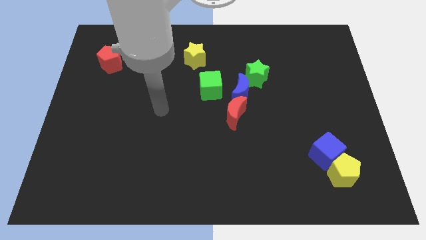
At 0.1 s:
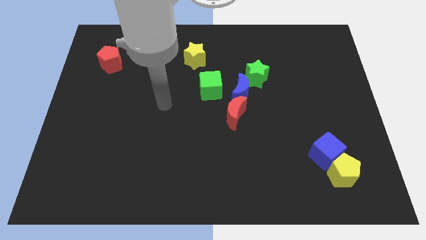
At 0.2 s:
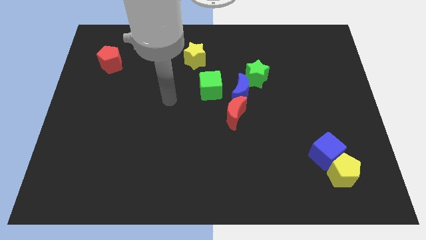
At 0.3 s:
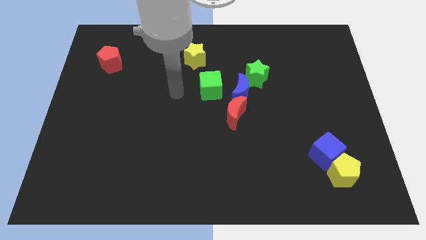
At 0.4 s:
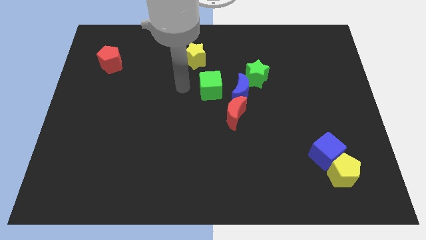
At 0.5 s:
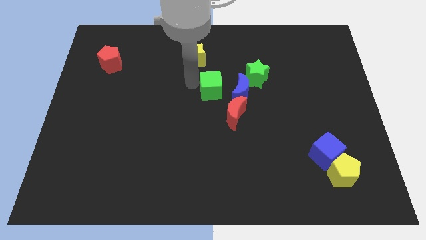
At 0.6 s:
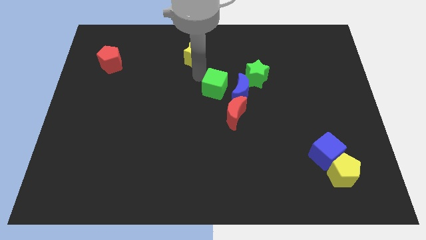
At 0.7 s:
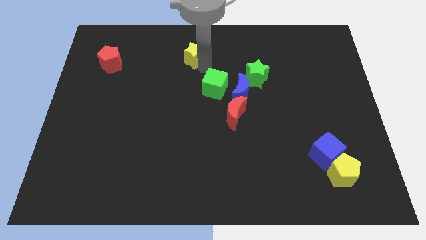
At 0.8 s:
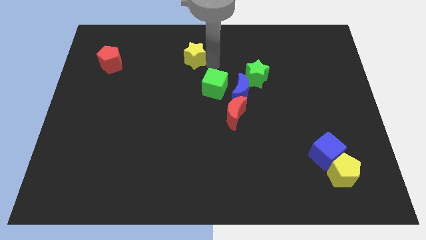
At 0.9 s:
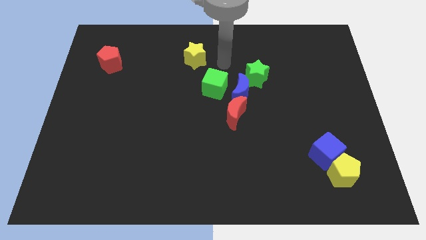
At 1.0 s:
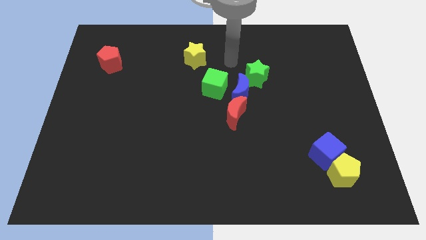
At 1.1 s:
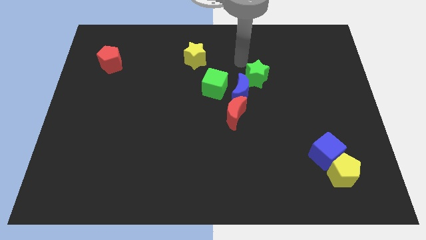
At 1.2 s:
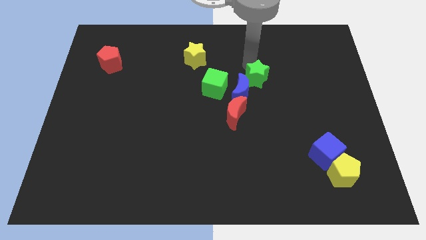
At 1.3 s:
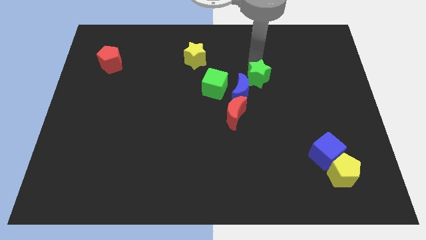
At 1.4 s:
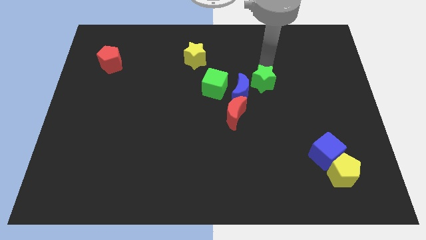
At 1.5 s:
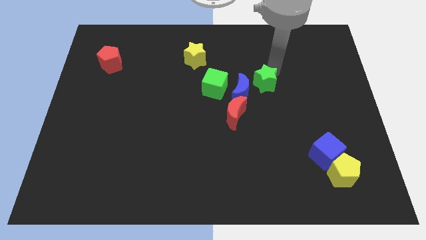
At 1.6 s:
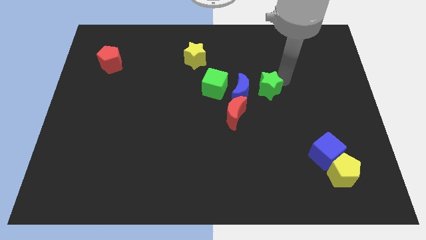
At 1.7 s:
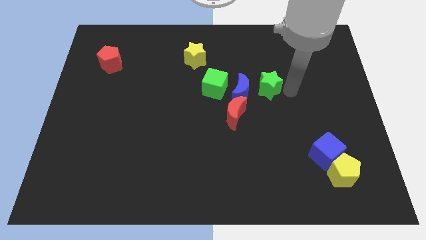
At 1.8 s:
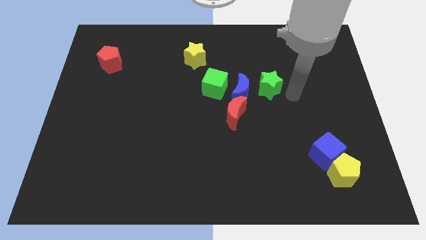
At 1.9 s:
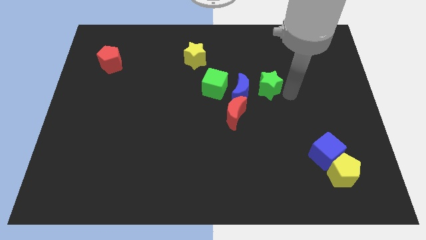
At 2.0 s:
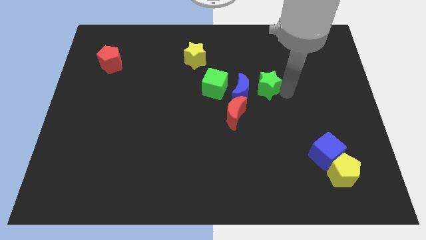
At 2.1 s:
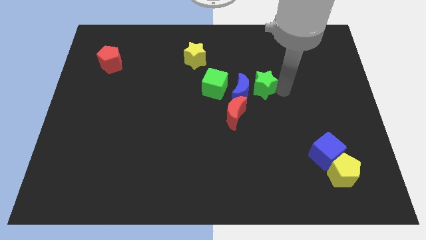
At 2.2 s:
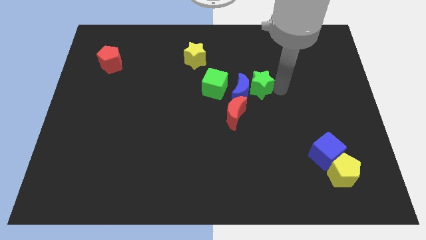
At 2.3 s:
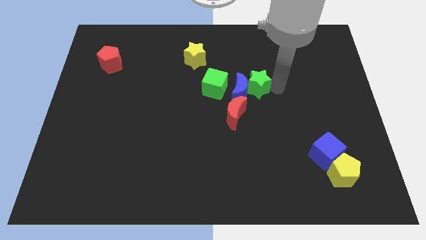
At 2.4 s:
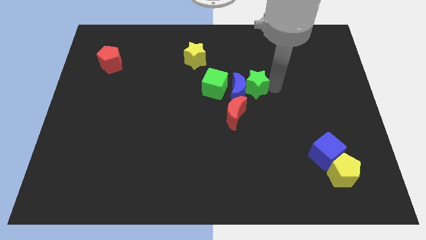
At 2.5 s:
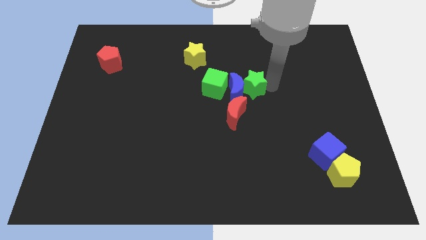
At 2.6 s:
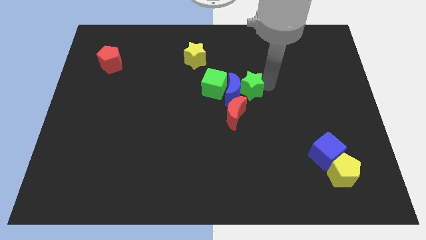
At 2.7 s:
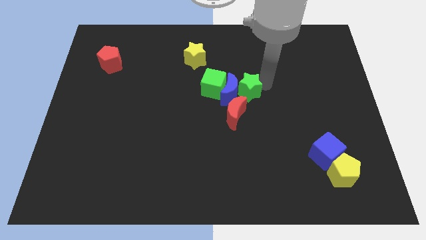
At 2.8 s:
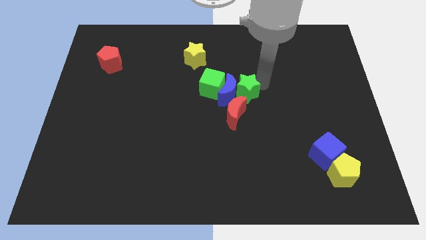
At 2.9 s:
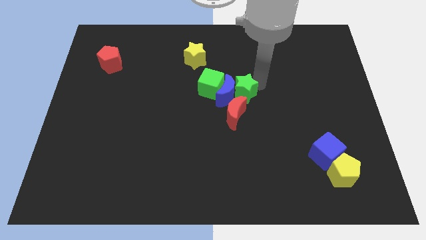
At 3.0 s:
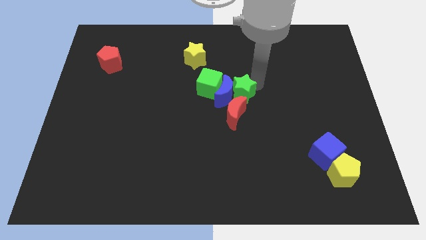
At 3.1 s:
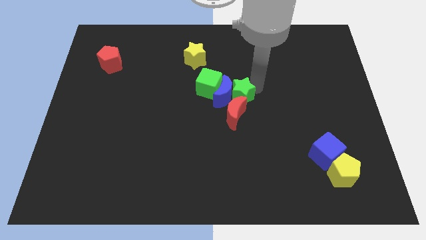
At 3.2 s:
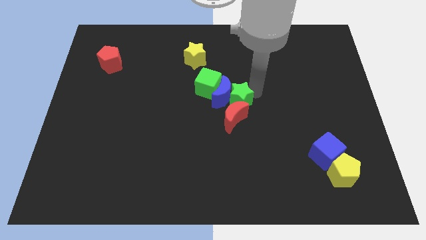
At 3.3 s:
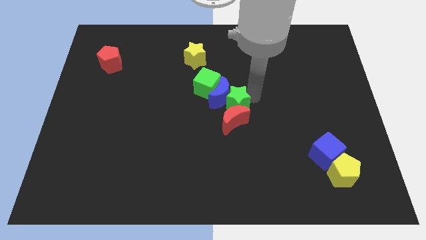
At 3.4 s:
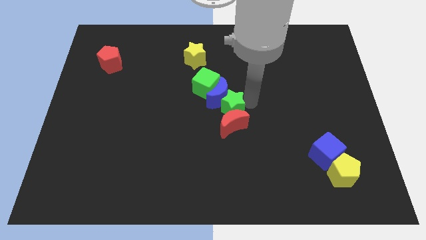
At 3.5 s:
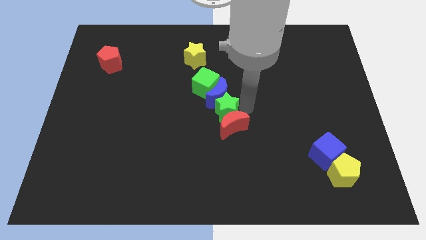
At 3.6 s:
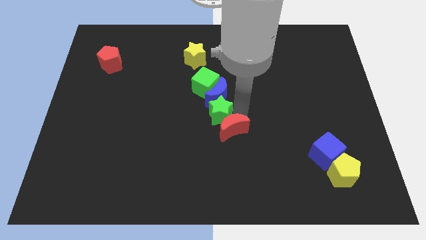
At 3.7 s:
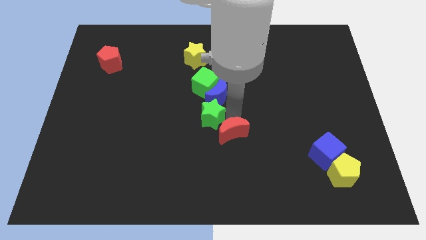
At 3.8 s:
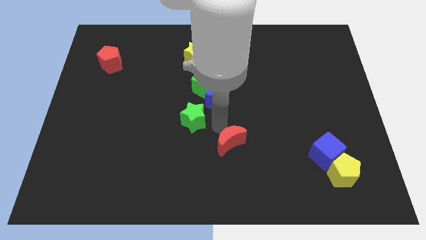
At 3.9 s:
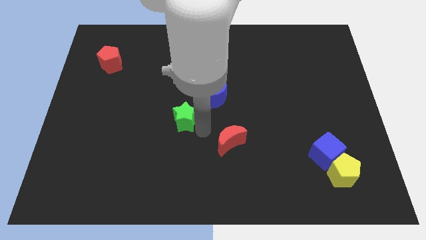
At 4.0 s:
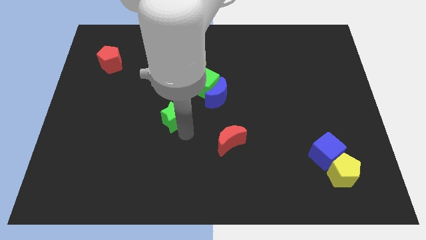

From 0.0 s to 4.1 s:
move the green star somewhat left

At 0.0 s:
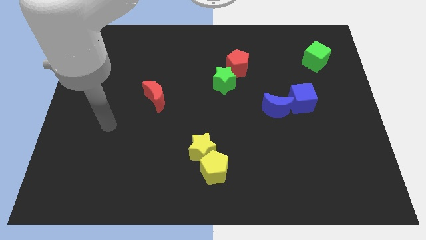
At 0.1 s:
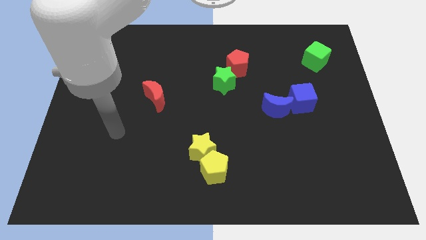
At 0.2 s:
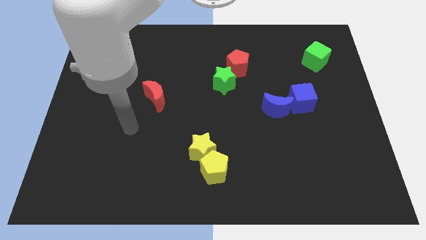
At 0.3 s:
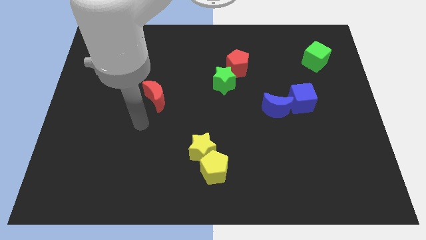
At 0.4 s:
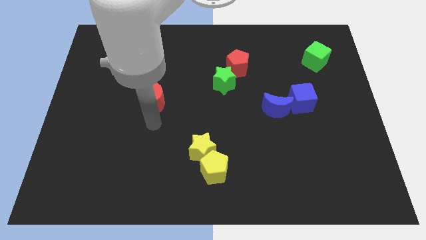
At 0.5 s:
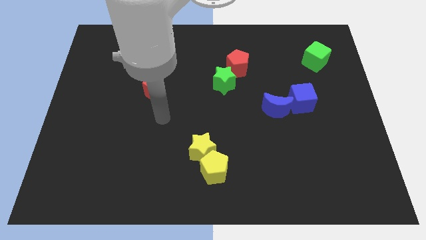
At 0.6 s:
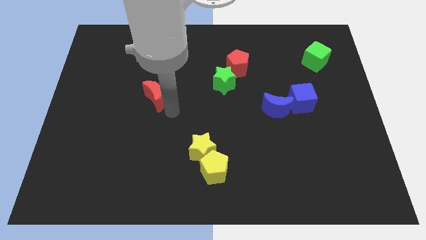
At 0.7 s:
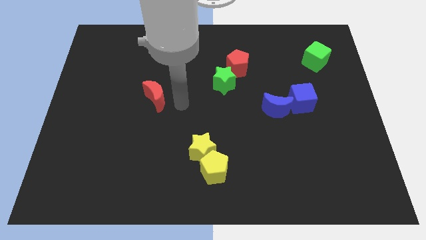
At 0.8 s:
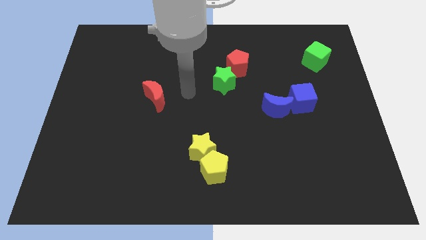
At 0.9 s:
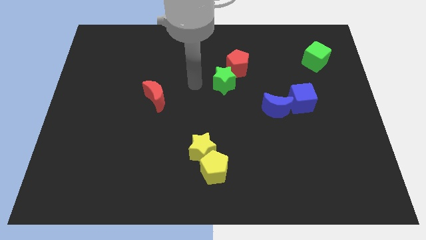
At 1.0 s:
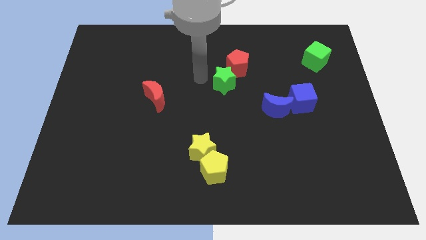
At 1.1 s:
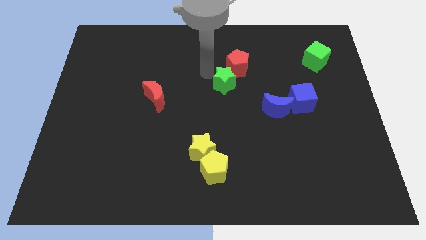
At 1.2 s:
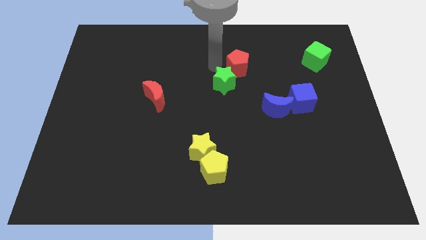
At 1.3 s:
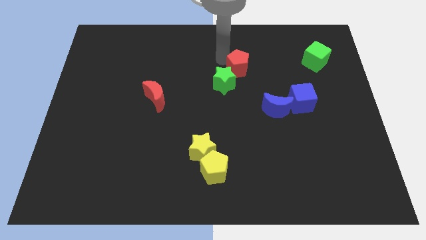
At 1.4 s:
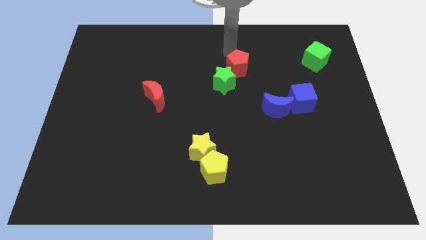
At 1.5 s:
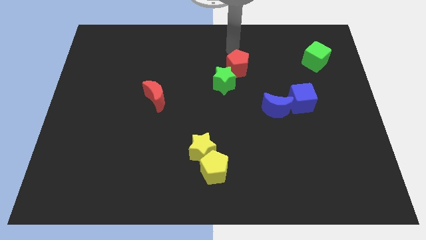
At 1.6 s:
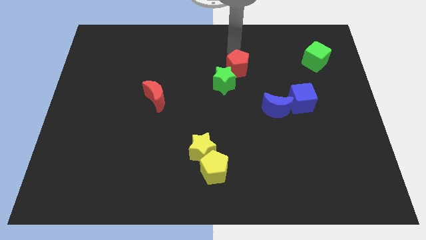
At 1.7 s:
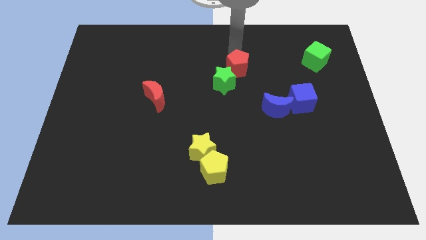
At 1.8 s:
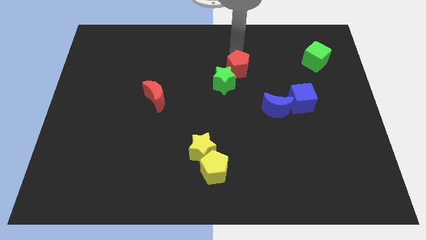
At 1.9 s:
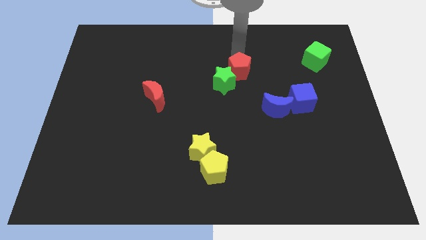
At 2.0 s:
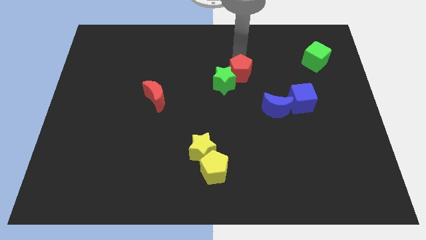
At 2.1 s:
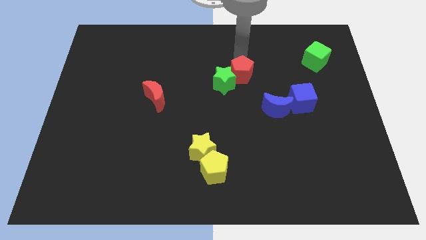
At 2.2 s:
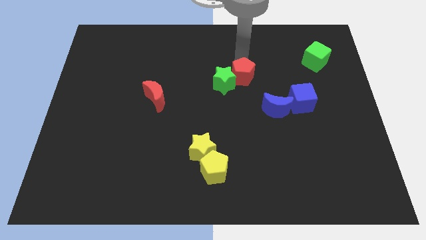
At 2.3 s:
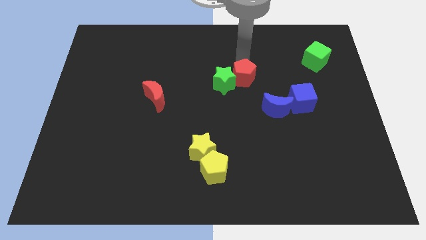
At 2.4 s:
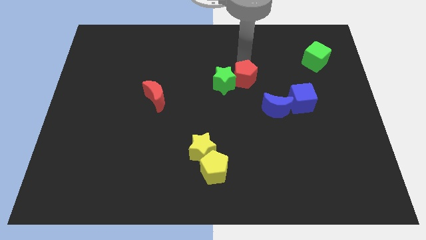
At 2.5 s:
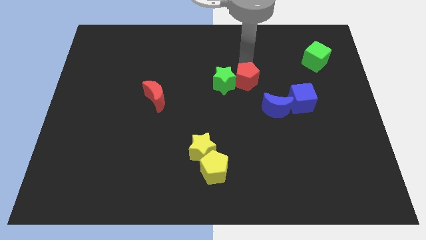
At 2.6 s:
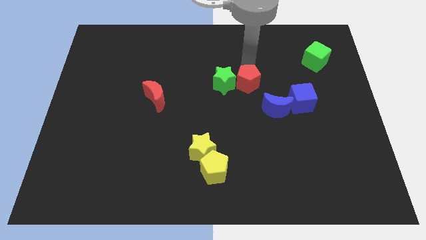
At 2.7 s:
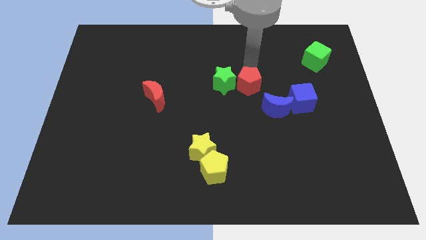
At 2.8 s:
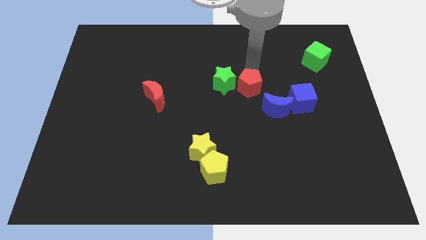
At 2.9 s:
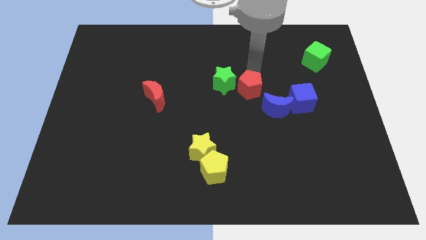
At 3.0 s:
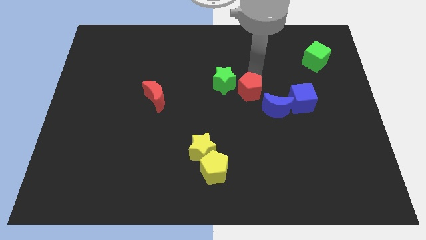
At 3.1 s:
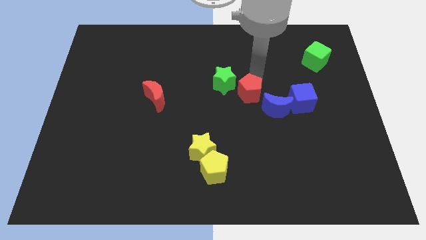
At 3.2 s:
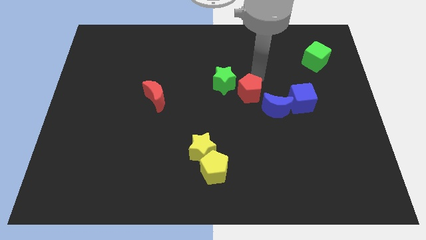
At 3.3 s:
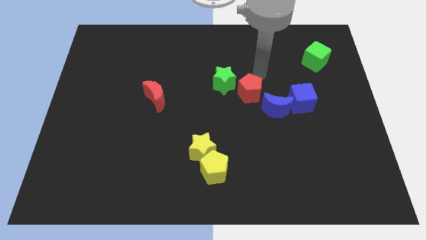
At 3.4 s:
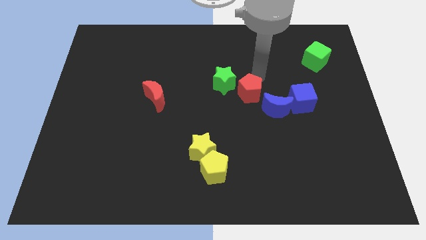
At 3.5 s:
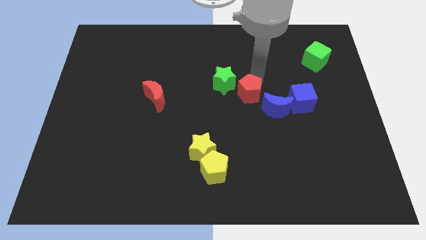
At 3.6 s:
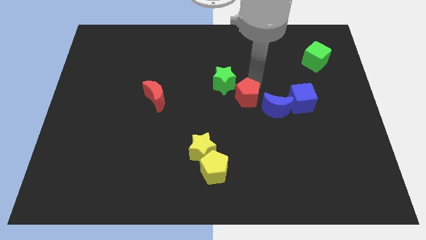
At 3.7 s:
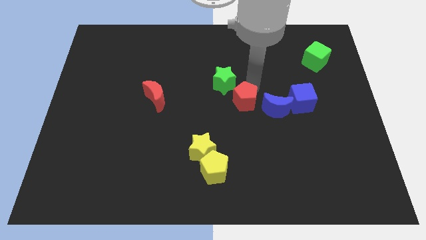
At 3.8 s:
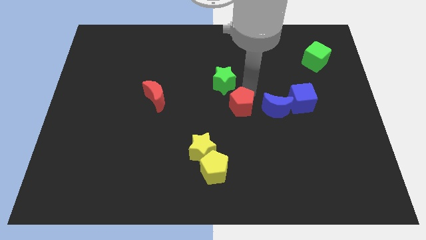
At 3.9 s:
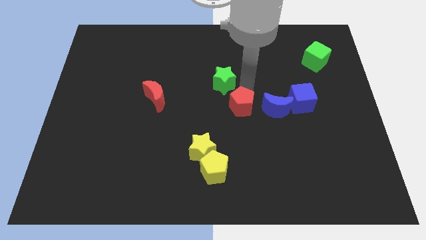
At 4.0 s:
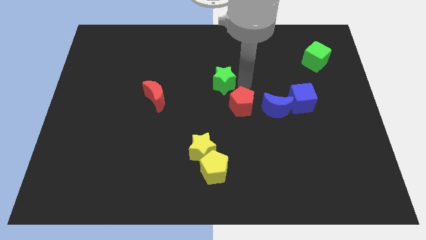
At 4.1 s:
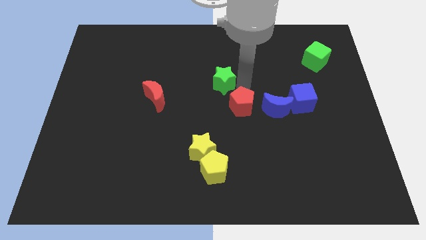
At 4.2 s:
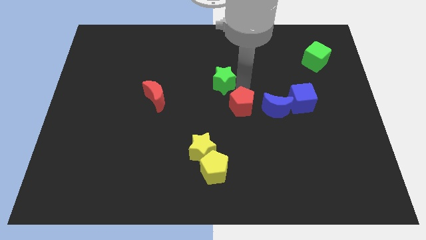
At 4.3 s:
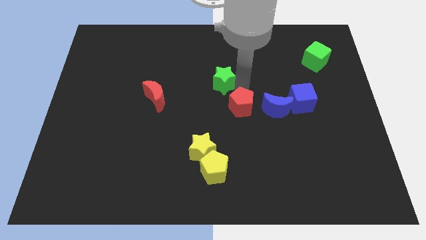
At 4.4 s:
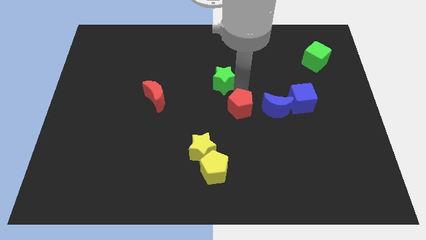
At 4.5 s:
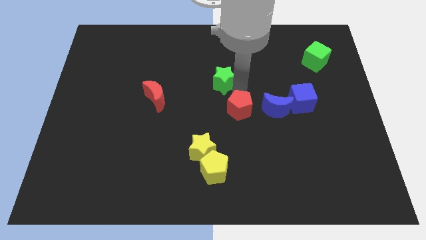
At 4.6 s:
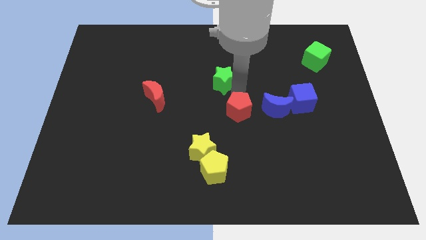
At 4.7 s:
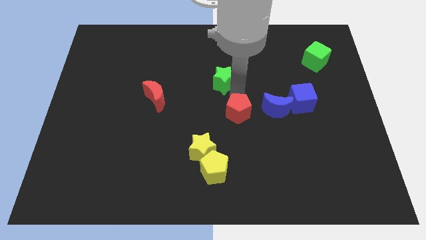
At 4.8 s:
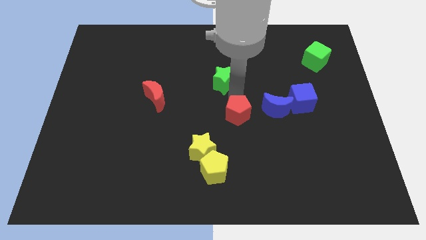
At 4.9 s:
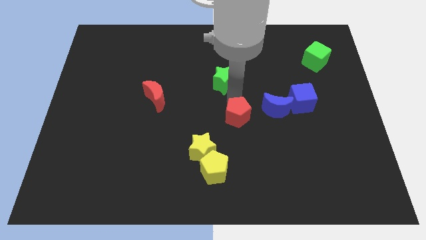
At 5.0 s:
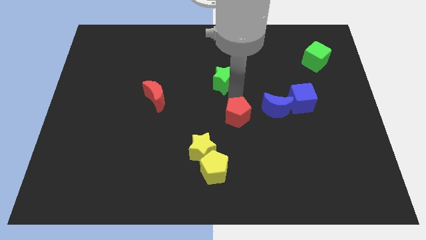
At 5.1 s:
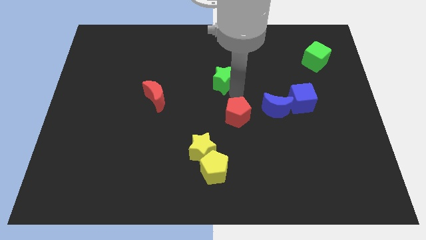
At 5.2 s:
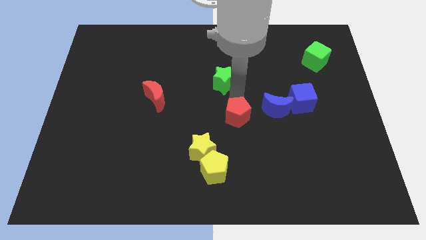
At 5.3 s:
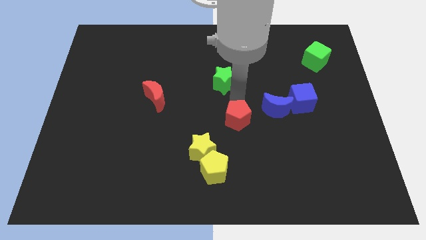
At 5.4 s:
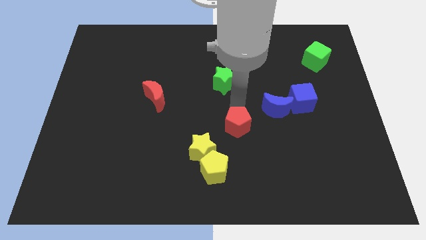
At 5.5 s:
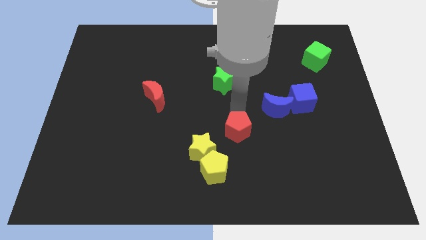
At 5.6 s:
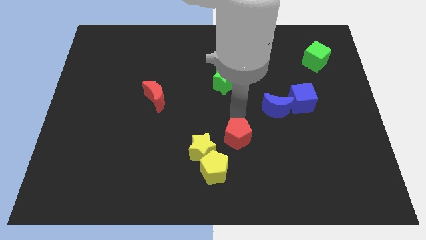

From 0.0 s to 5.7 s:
push the red pentagon down
